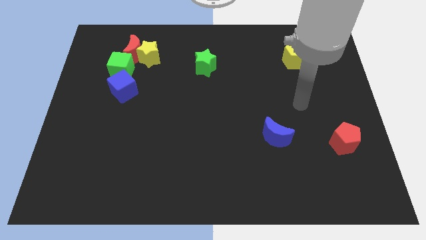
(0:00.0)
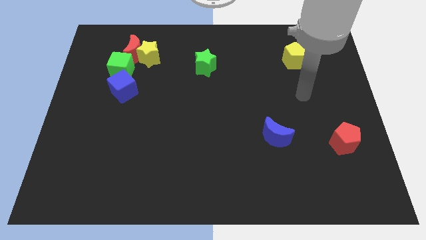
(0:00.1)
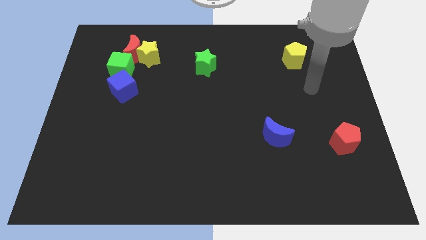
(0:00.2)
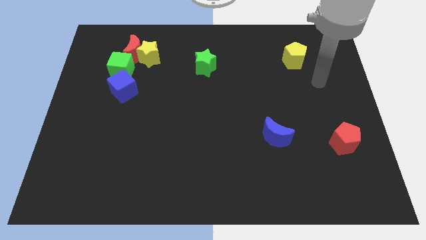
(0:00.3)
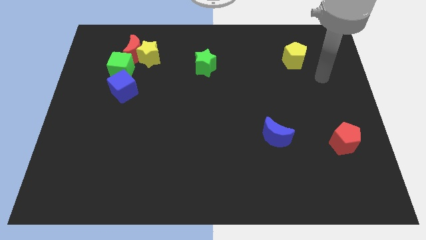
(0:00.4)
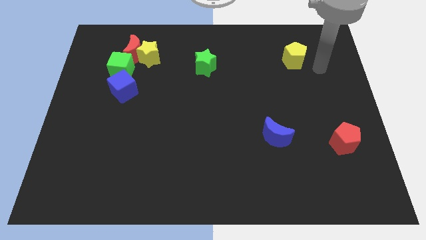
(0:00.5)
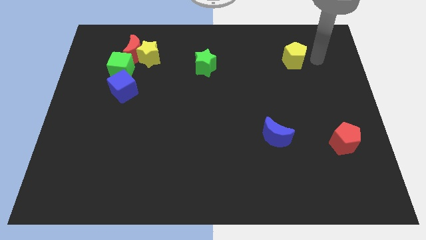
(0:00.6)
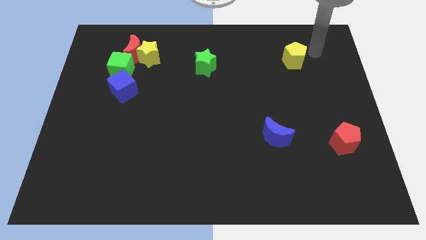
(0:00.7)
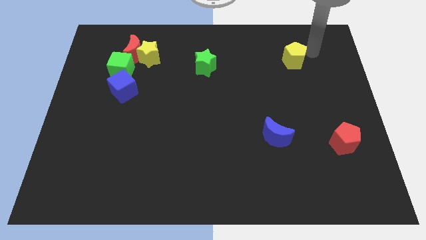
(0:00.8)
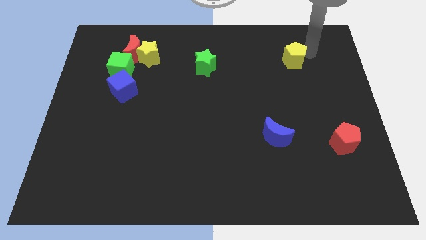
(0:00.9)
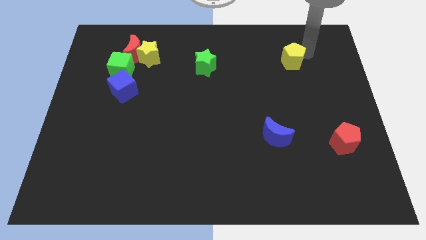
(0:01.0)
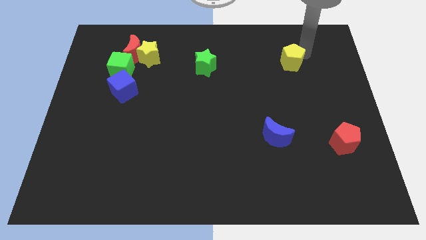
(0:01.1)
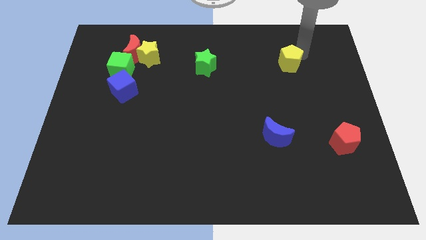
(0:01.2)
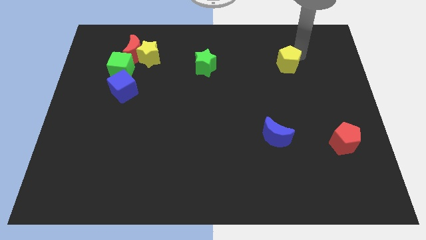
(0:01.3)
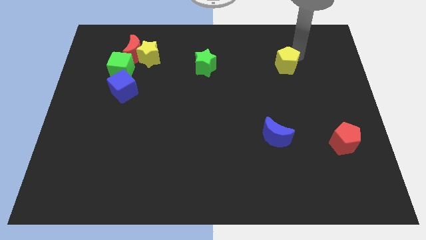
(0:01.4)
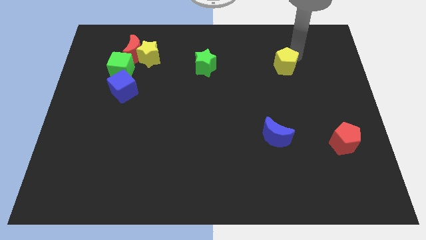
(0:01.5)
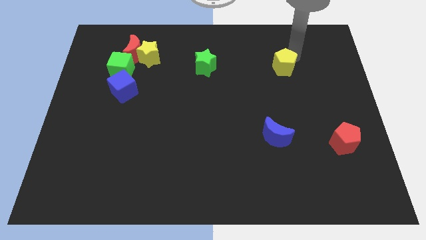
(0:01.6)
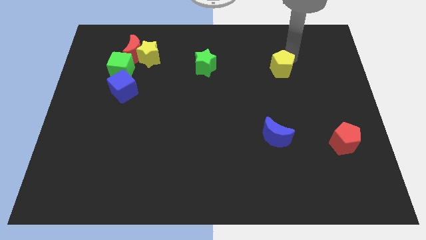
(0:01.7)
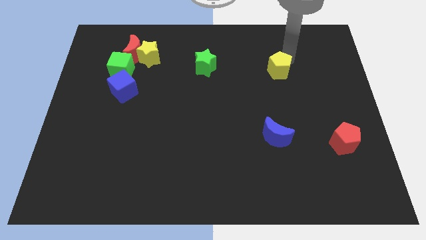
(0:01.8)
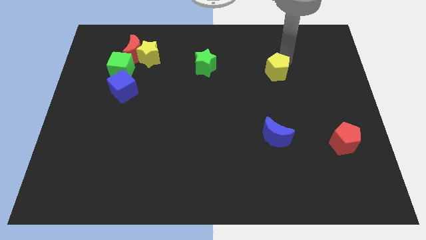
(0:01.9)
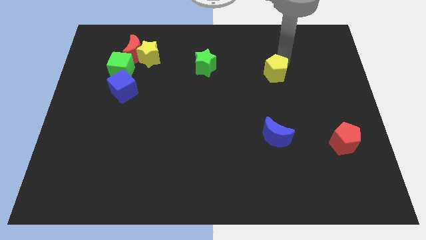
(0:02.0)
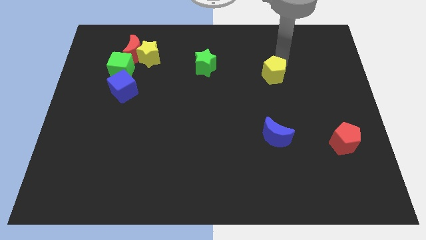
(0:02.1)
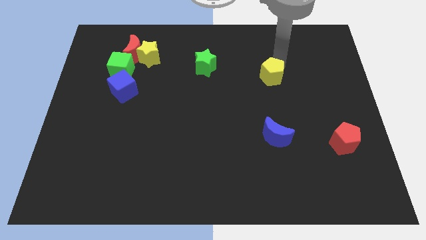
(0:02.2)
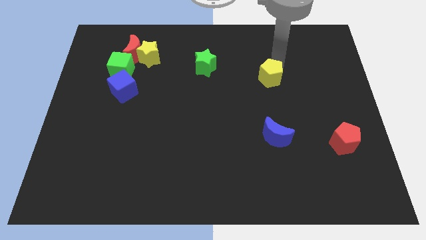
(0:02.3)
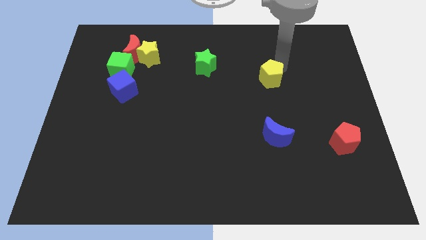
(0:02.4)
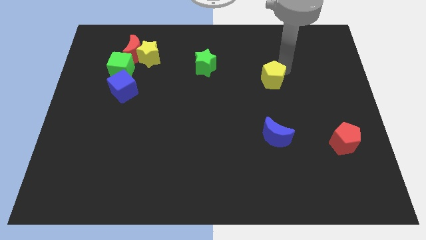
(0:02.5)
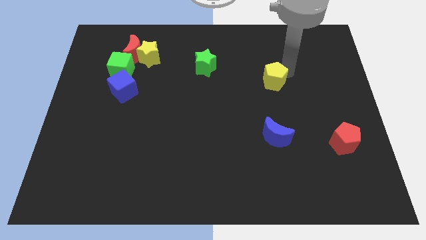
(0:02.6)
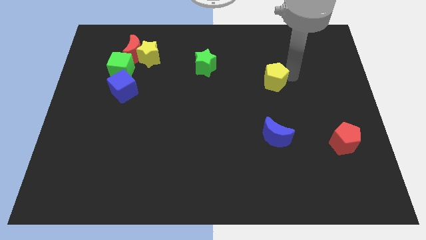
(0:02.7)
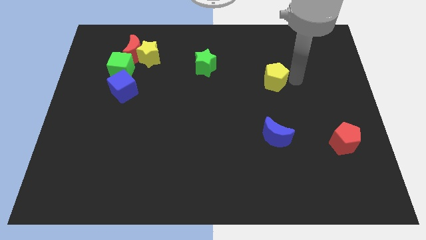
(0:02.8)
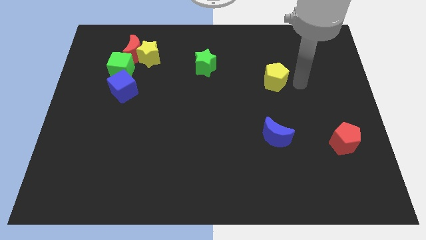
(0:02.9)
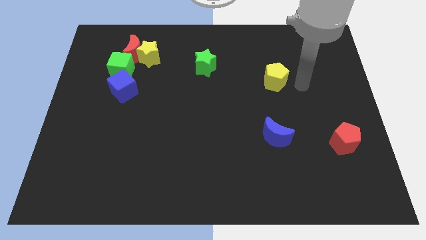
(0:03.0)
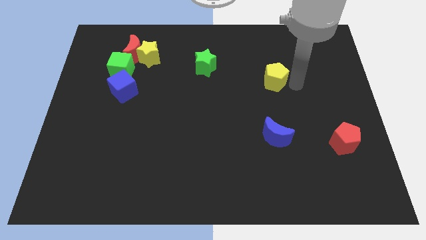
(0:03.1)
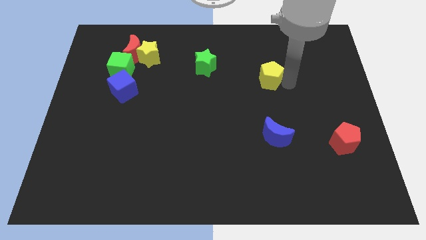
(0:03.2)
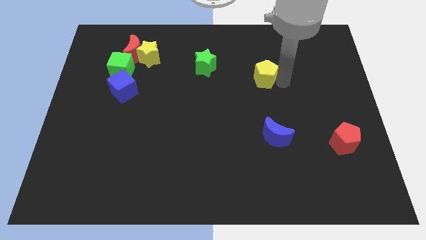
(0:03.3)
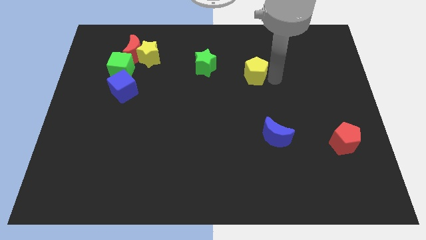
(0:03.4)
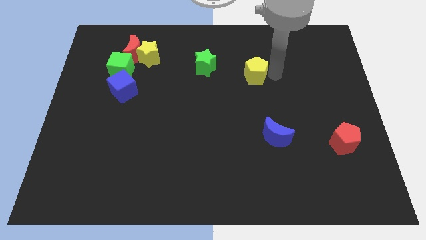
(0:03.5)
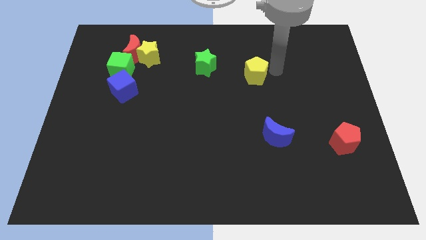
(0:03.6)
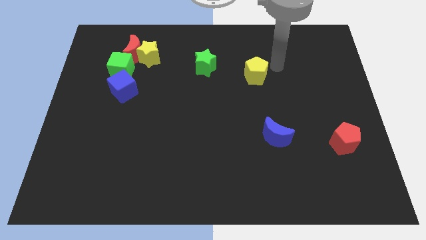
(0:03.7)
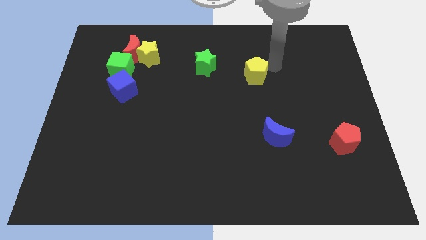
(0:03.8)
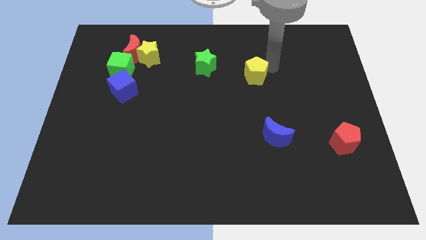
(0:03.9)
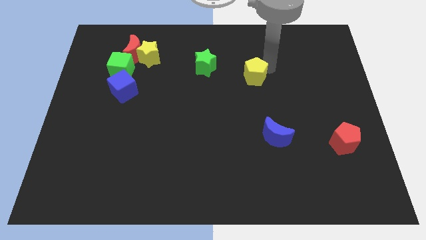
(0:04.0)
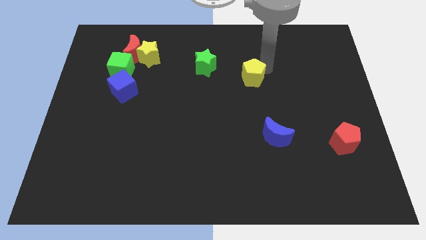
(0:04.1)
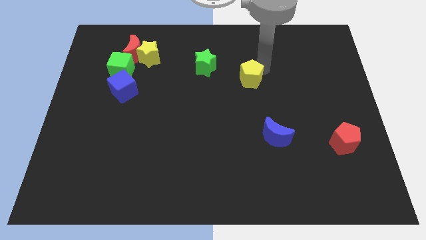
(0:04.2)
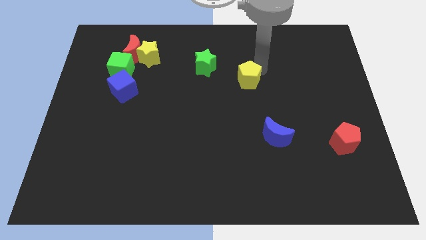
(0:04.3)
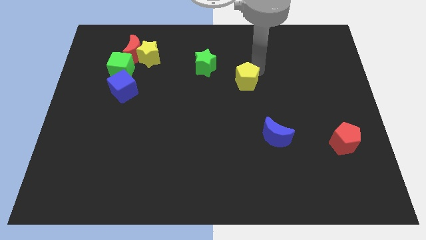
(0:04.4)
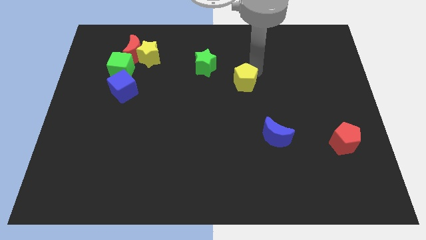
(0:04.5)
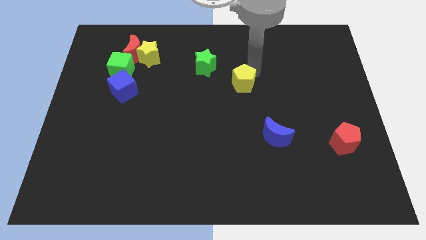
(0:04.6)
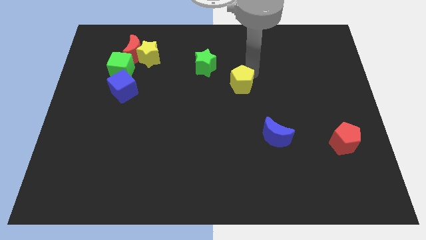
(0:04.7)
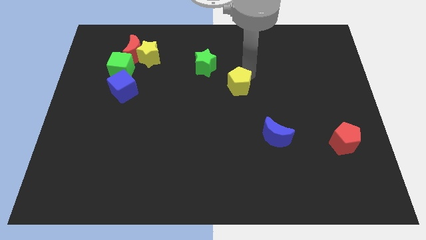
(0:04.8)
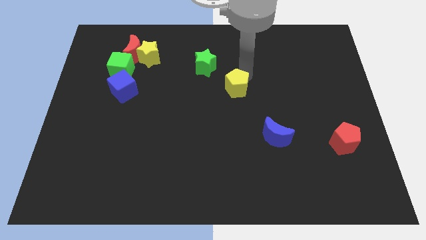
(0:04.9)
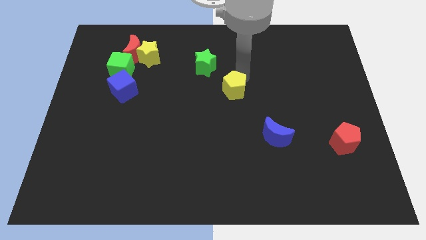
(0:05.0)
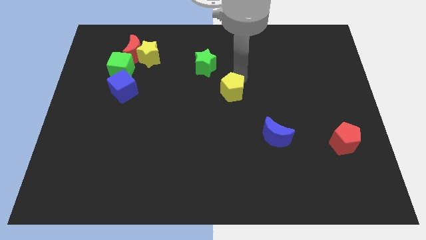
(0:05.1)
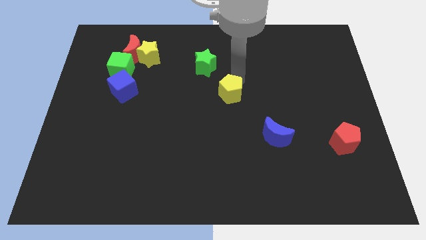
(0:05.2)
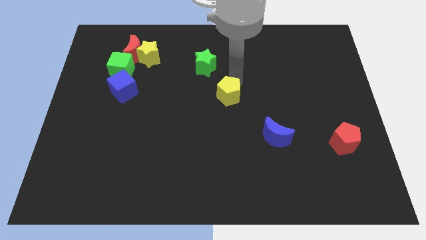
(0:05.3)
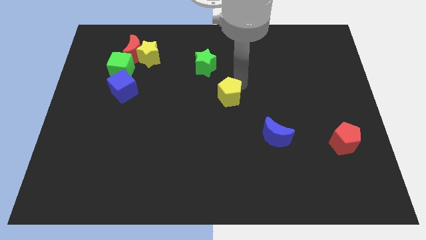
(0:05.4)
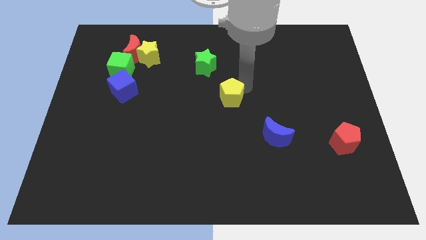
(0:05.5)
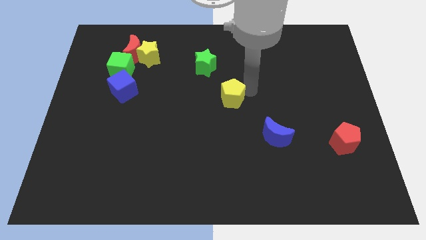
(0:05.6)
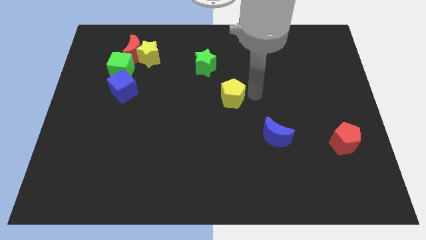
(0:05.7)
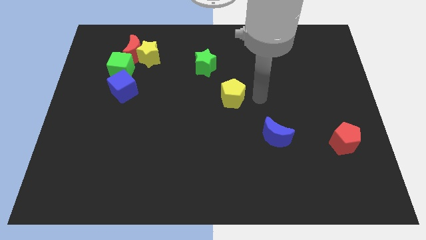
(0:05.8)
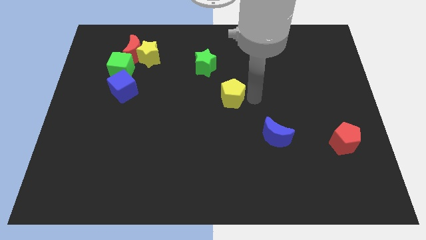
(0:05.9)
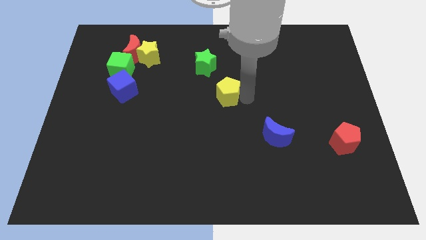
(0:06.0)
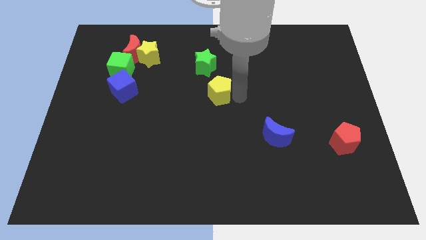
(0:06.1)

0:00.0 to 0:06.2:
slide the yellow pentagon to the bottom of the green star

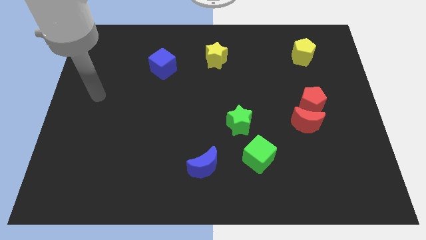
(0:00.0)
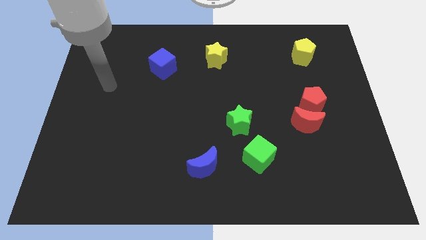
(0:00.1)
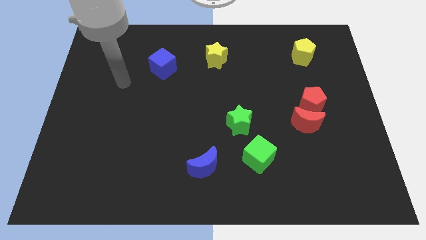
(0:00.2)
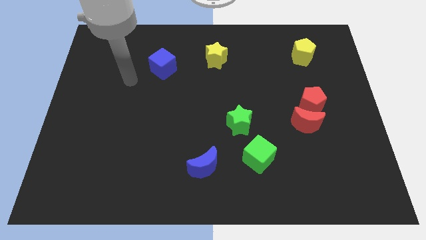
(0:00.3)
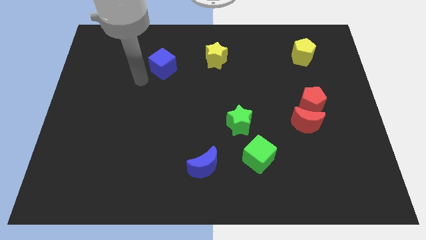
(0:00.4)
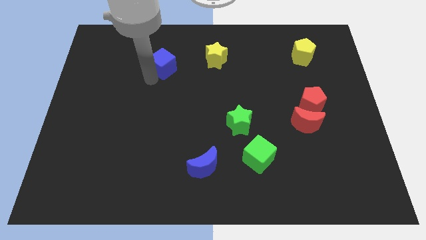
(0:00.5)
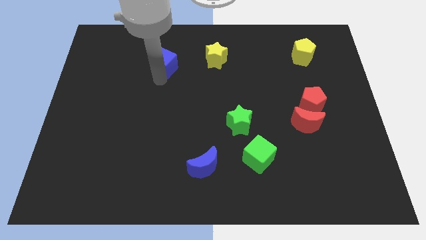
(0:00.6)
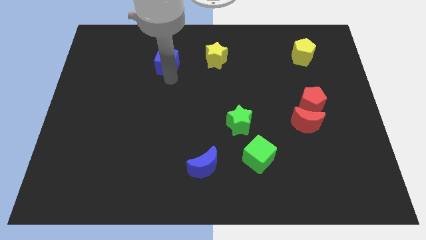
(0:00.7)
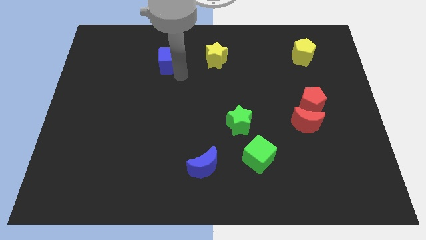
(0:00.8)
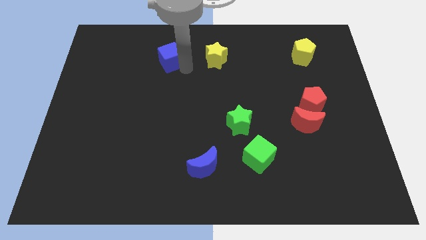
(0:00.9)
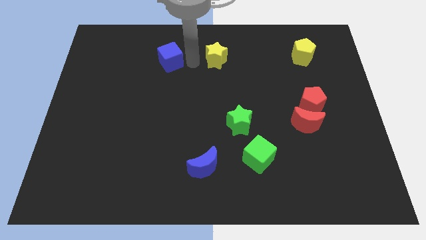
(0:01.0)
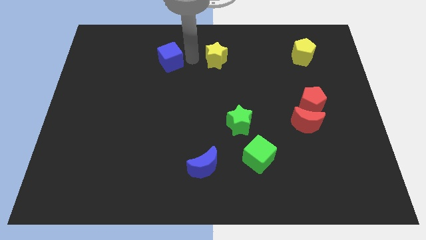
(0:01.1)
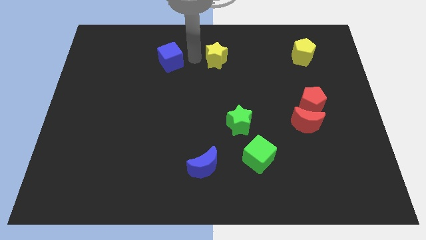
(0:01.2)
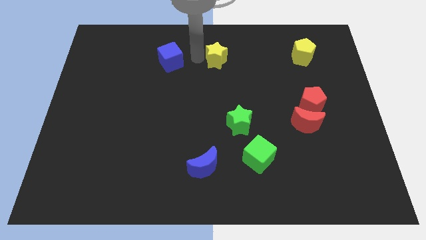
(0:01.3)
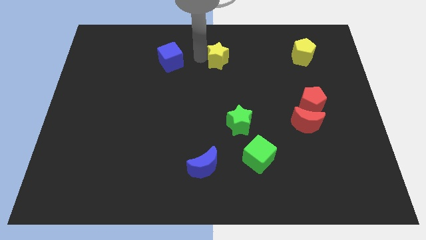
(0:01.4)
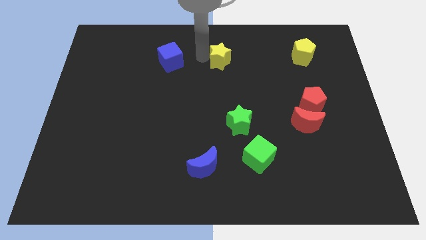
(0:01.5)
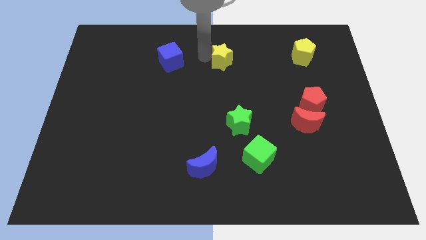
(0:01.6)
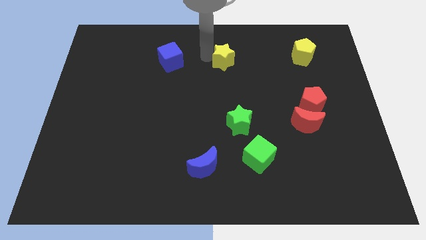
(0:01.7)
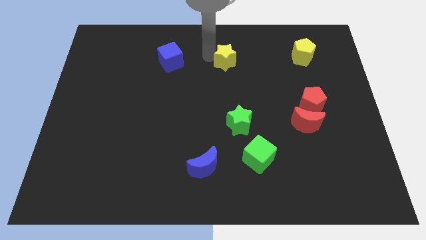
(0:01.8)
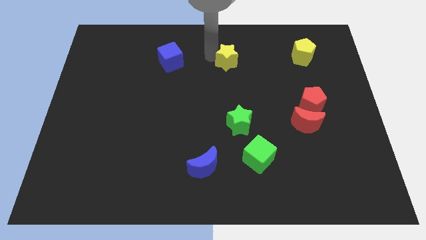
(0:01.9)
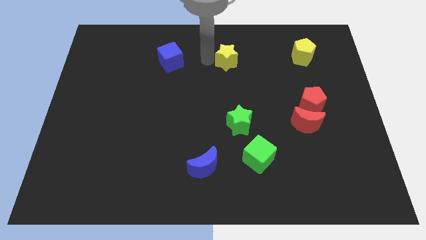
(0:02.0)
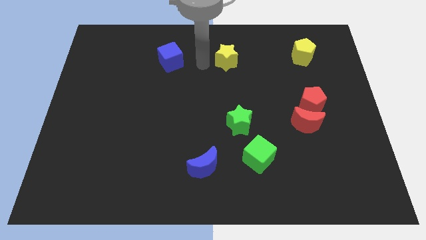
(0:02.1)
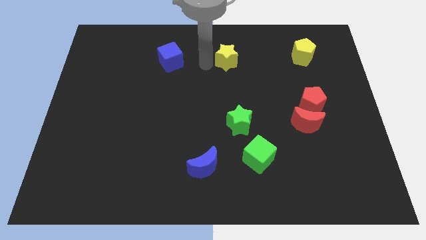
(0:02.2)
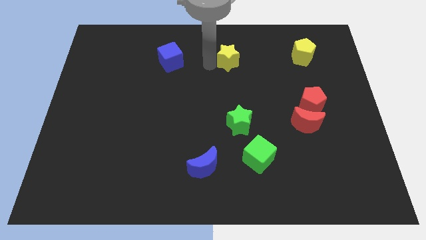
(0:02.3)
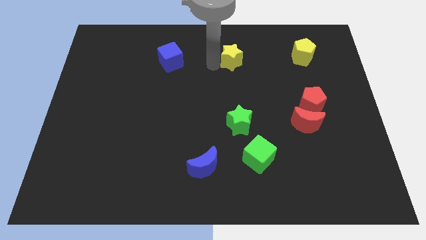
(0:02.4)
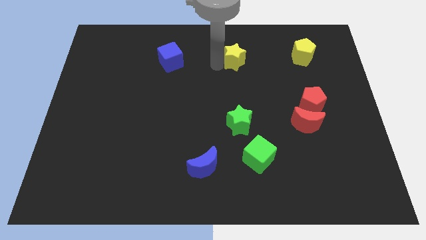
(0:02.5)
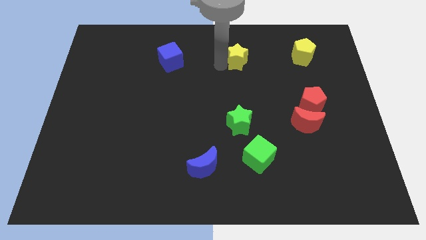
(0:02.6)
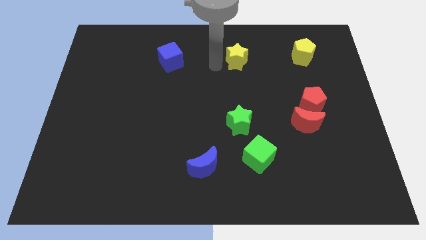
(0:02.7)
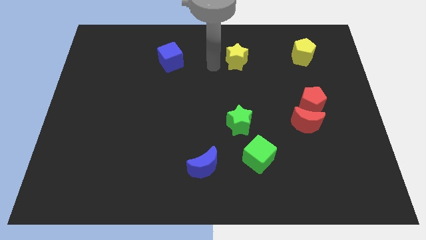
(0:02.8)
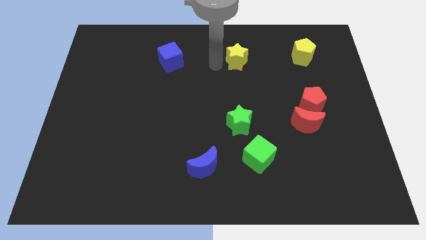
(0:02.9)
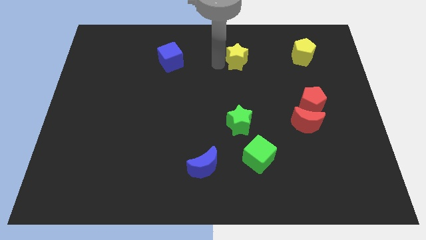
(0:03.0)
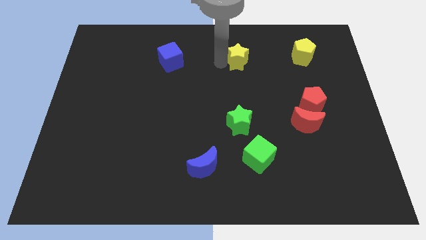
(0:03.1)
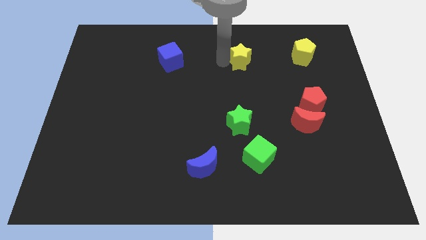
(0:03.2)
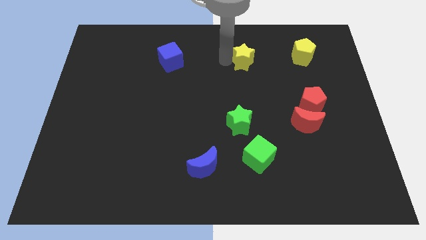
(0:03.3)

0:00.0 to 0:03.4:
move the yellow star to the left of the yellow pentagon
